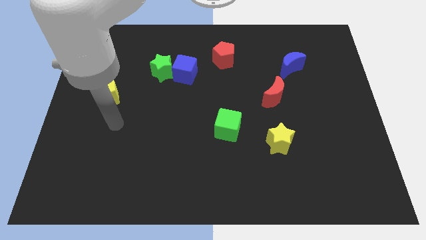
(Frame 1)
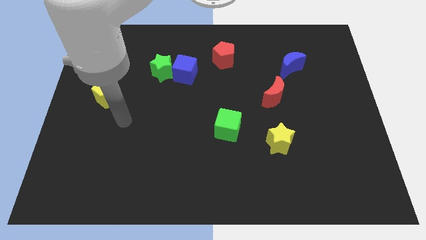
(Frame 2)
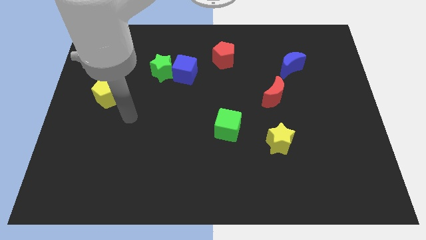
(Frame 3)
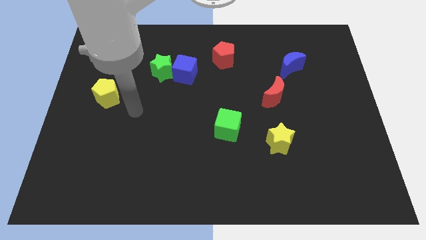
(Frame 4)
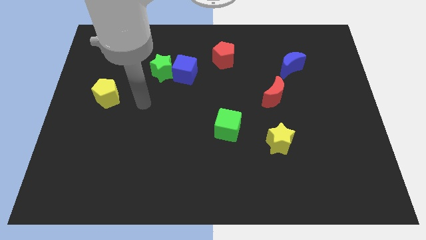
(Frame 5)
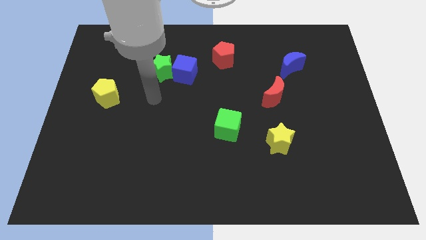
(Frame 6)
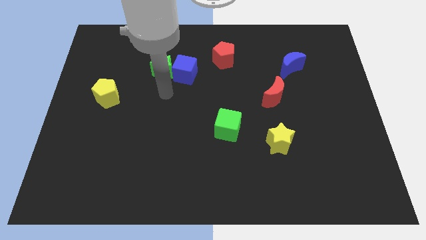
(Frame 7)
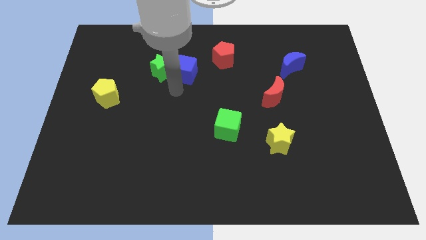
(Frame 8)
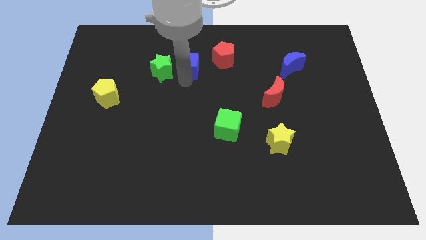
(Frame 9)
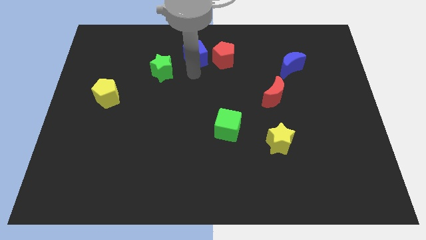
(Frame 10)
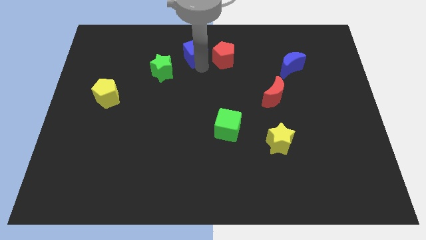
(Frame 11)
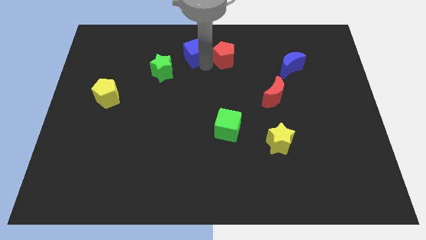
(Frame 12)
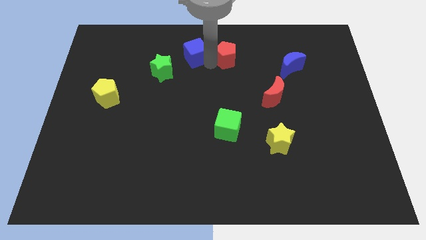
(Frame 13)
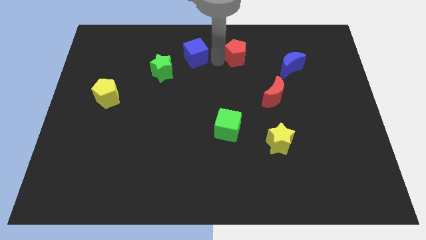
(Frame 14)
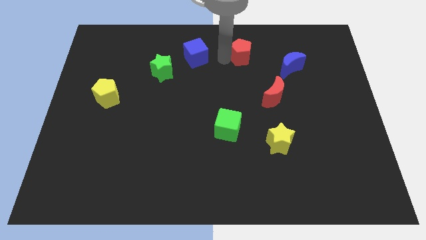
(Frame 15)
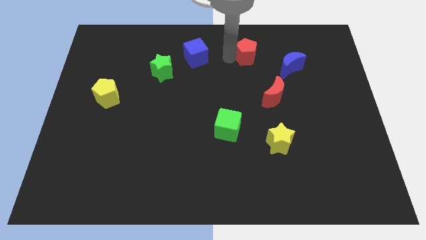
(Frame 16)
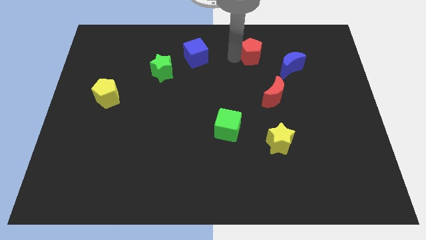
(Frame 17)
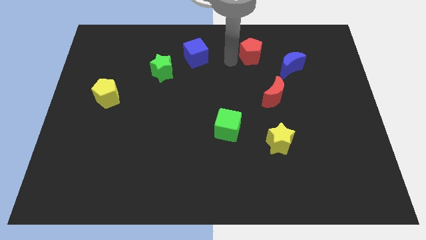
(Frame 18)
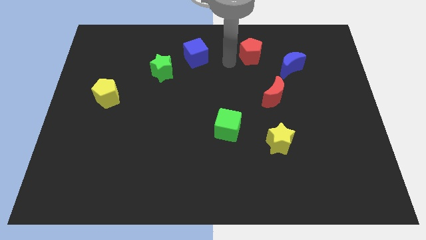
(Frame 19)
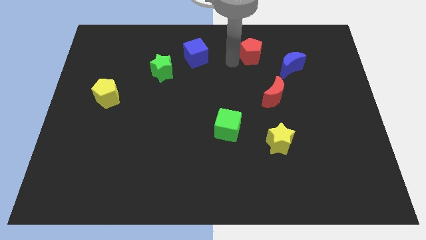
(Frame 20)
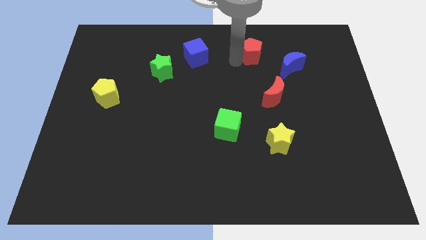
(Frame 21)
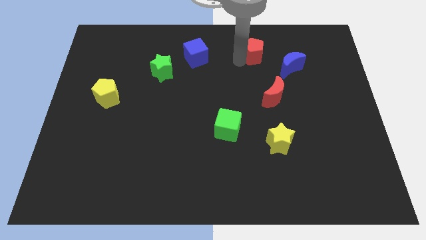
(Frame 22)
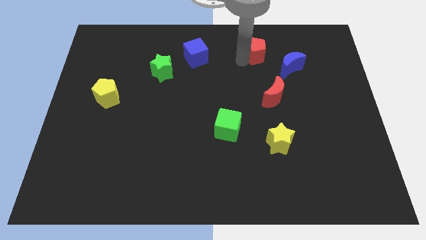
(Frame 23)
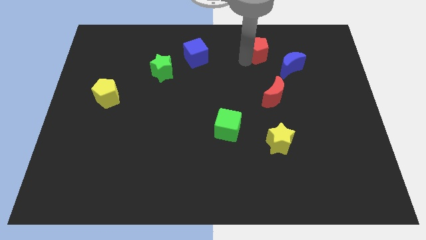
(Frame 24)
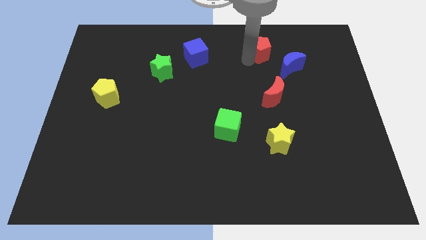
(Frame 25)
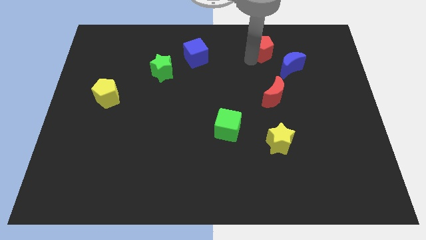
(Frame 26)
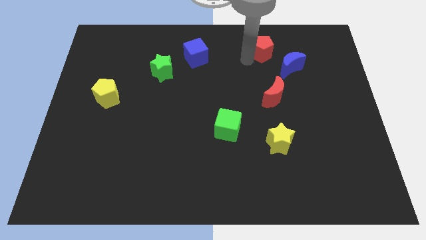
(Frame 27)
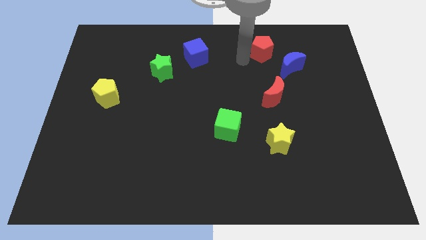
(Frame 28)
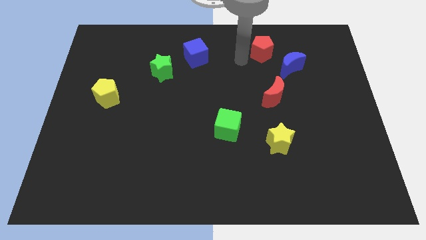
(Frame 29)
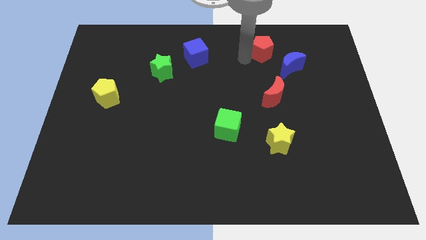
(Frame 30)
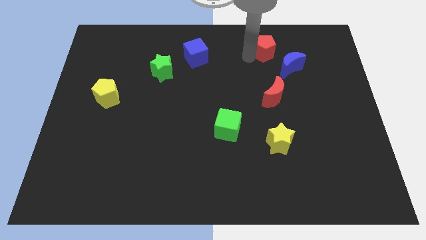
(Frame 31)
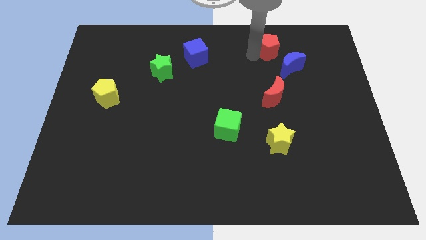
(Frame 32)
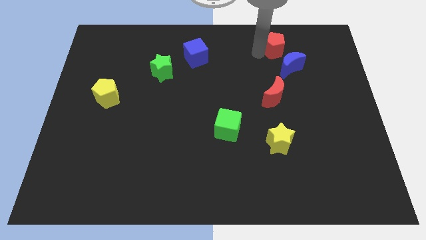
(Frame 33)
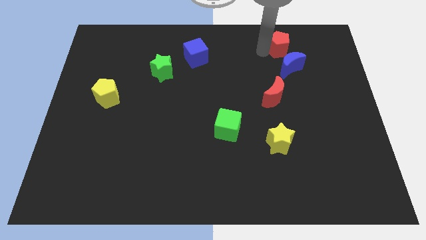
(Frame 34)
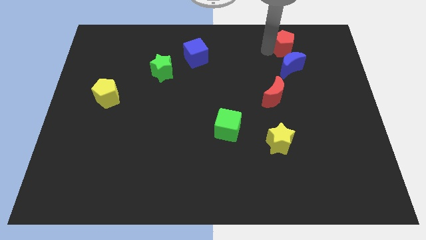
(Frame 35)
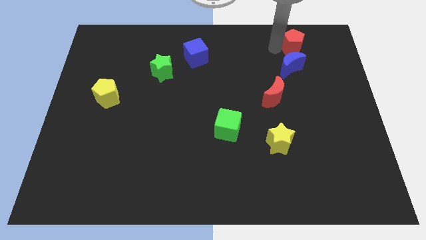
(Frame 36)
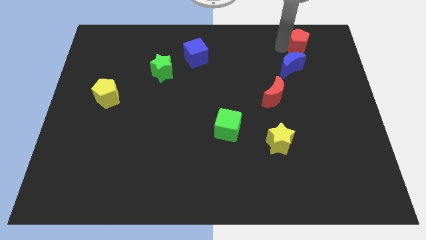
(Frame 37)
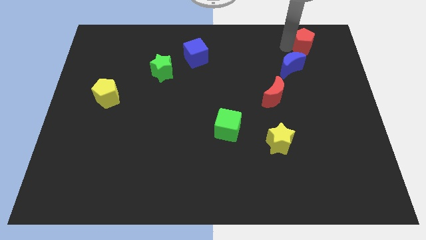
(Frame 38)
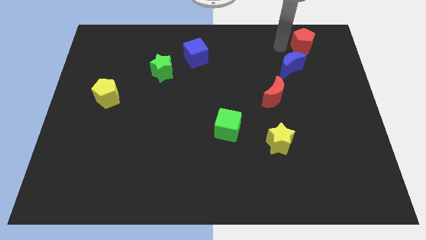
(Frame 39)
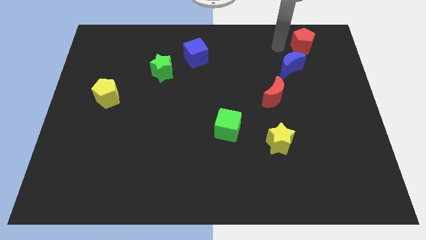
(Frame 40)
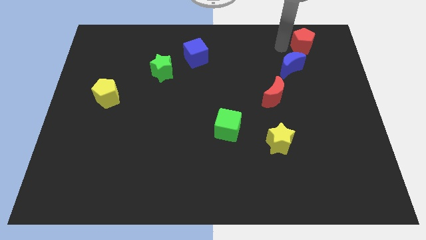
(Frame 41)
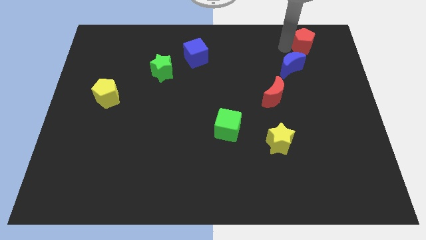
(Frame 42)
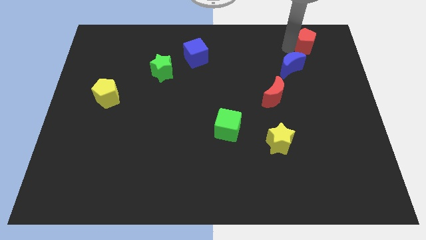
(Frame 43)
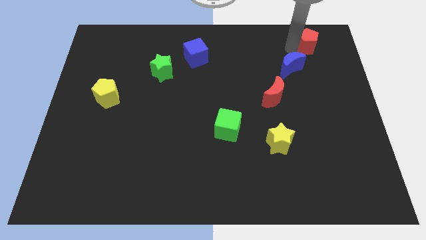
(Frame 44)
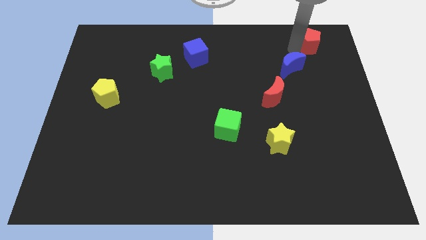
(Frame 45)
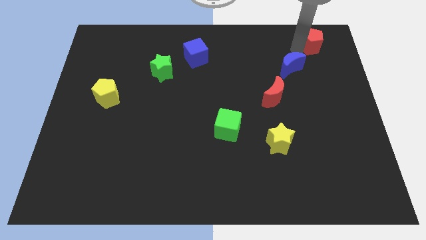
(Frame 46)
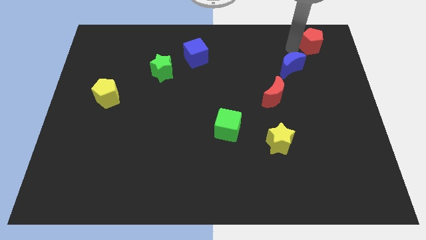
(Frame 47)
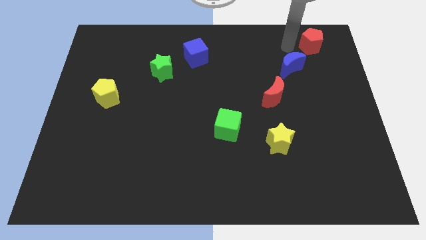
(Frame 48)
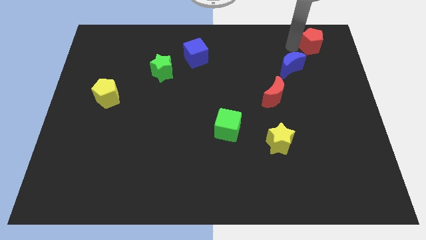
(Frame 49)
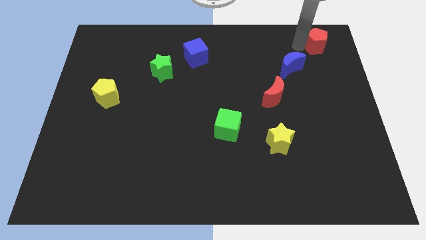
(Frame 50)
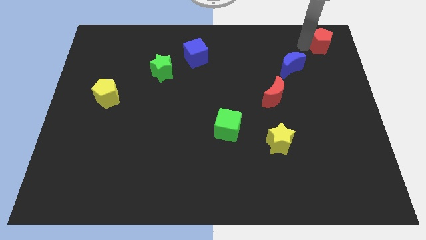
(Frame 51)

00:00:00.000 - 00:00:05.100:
push the red pentagon to the top right of the board

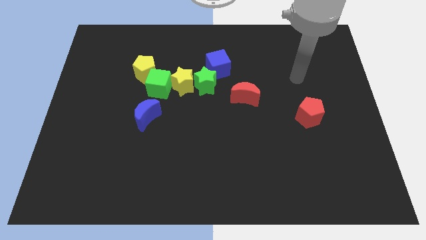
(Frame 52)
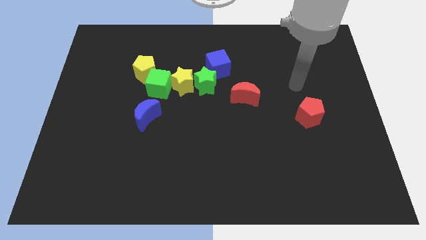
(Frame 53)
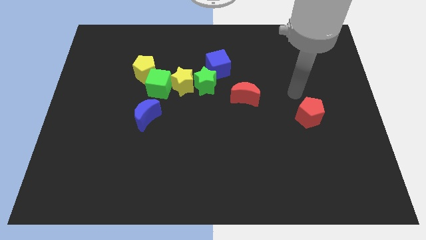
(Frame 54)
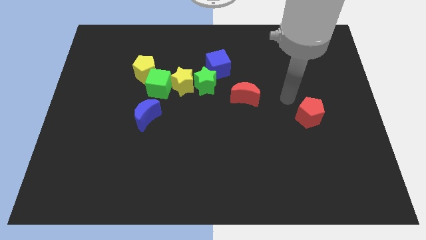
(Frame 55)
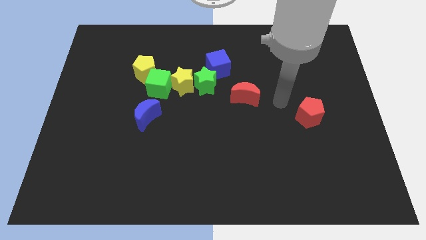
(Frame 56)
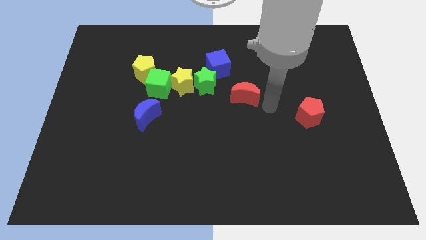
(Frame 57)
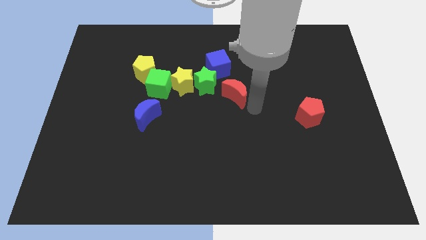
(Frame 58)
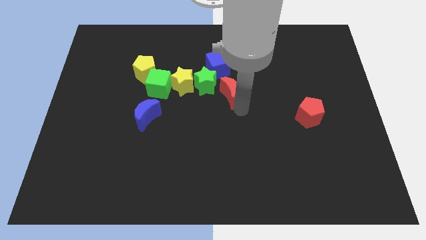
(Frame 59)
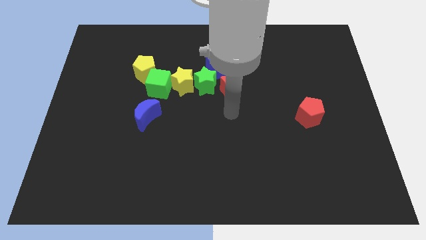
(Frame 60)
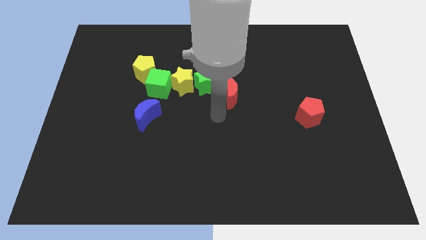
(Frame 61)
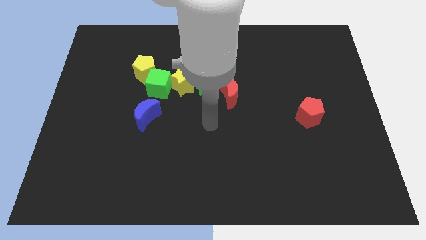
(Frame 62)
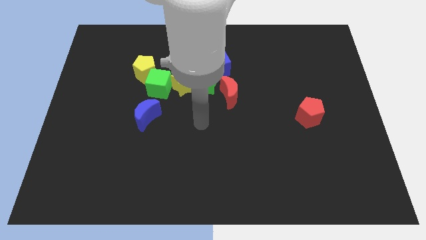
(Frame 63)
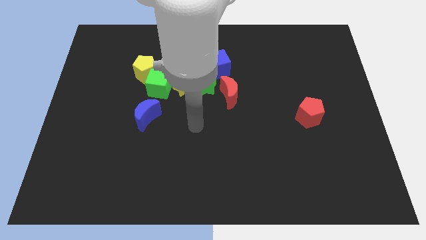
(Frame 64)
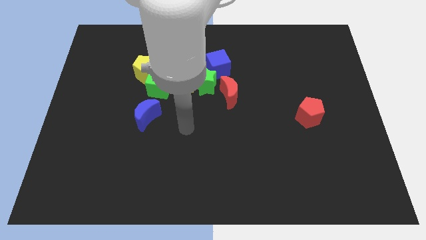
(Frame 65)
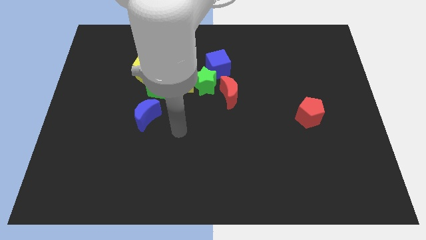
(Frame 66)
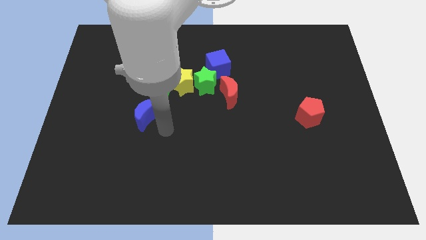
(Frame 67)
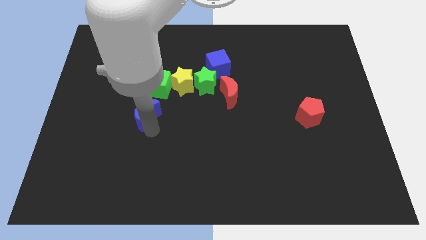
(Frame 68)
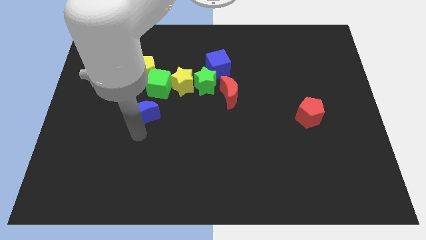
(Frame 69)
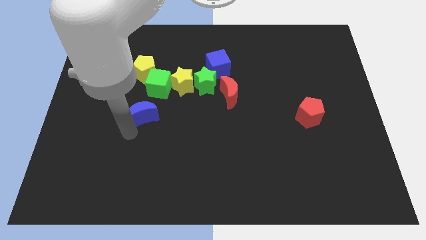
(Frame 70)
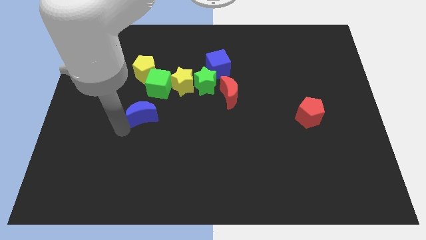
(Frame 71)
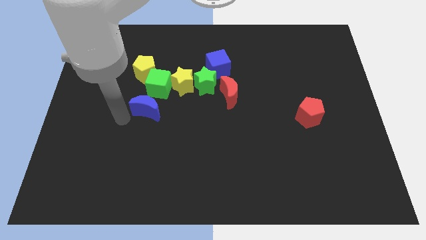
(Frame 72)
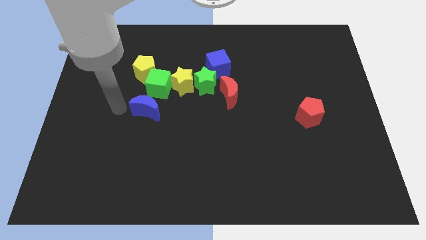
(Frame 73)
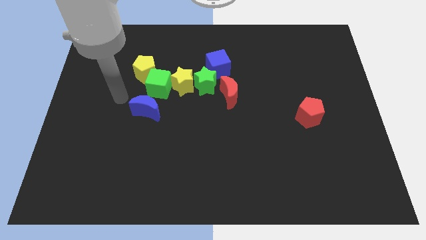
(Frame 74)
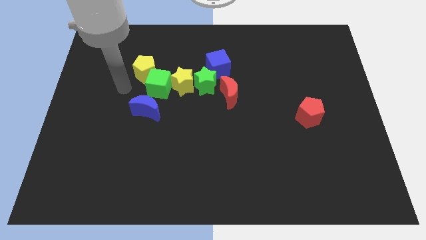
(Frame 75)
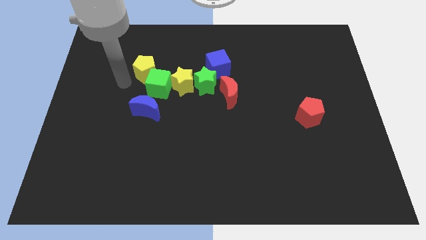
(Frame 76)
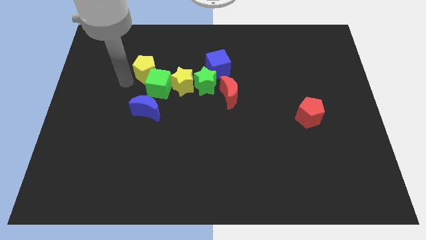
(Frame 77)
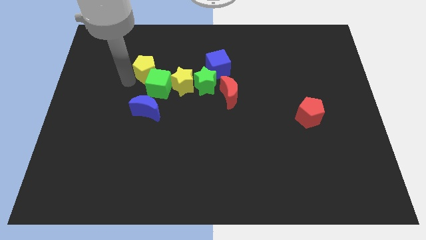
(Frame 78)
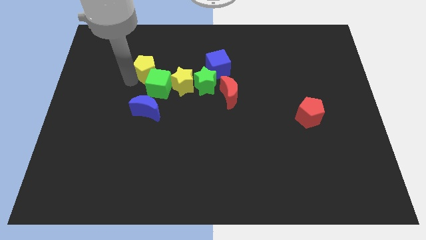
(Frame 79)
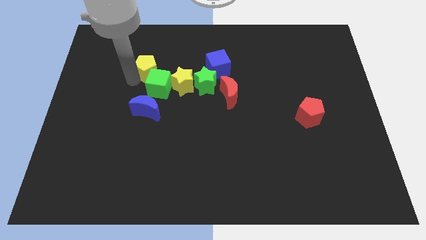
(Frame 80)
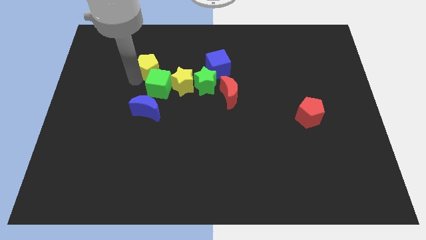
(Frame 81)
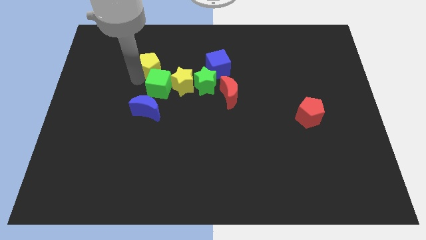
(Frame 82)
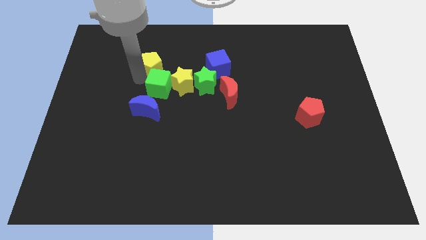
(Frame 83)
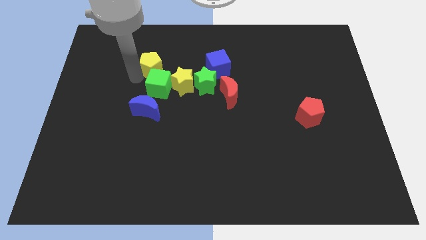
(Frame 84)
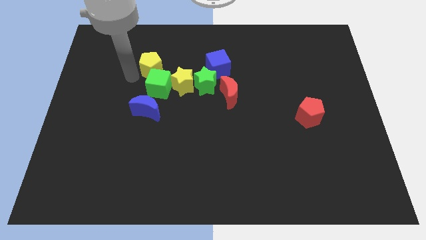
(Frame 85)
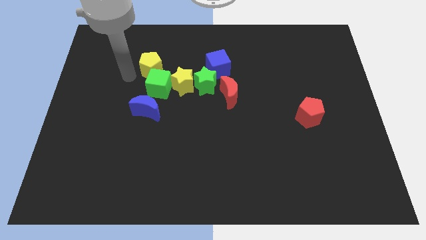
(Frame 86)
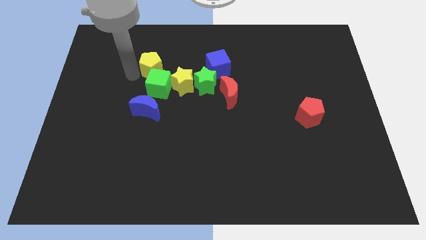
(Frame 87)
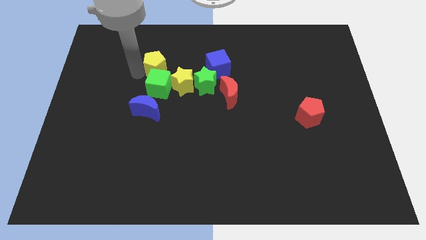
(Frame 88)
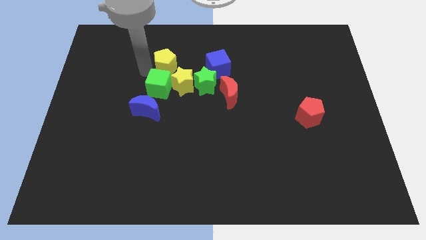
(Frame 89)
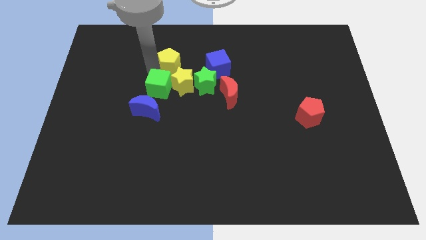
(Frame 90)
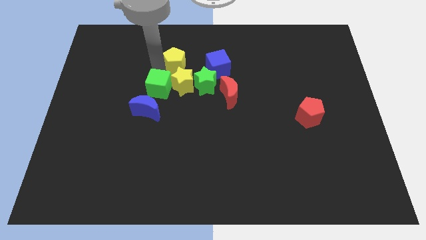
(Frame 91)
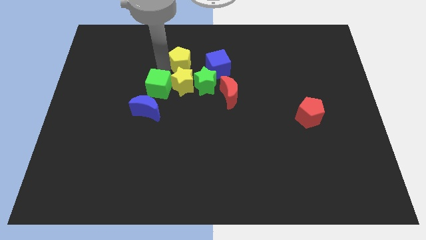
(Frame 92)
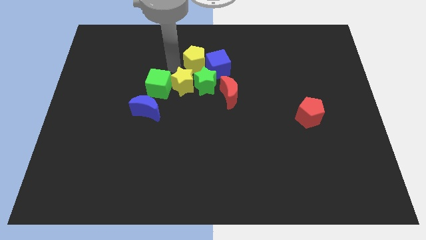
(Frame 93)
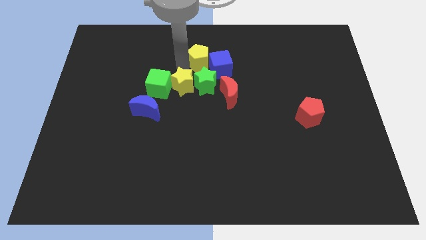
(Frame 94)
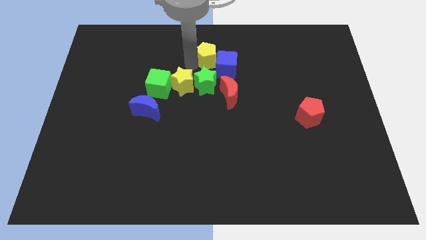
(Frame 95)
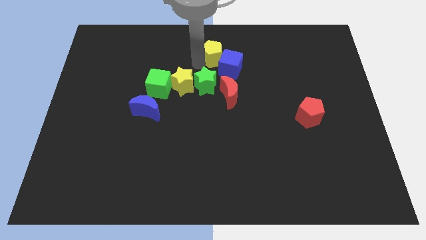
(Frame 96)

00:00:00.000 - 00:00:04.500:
move the yellow pentagon to the top
